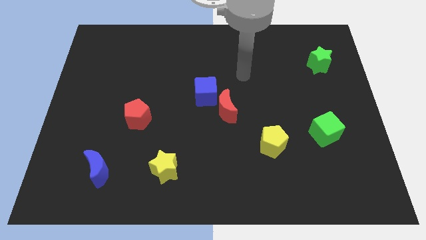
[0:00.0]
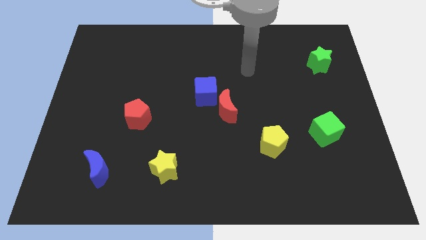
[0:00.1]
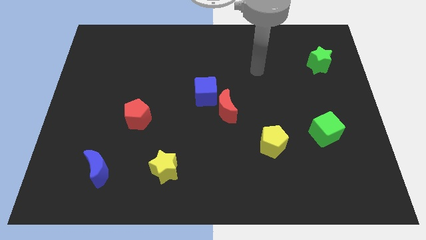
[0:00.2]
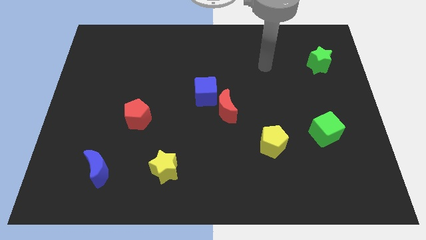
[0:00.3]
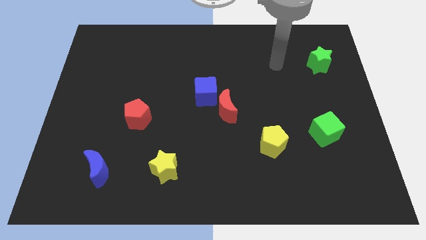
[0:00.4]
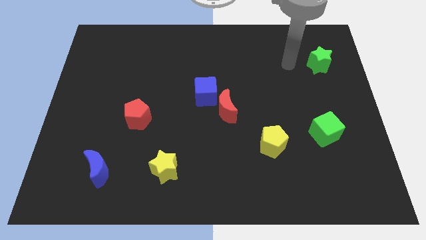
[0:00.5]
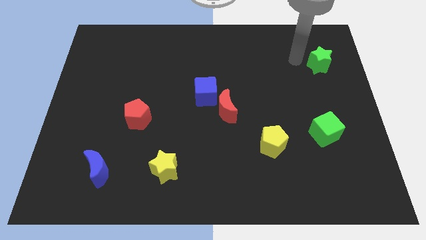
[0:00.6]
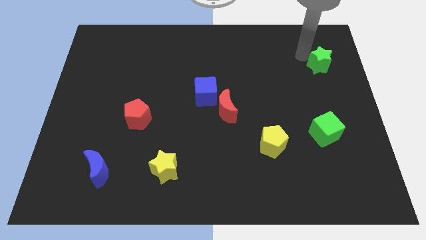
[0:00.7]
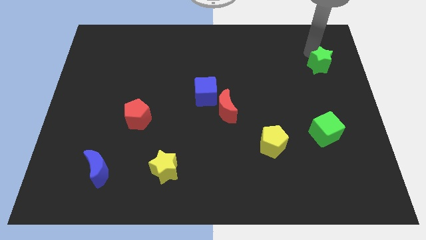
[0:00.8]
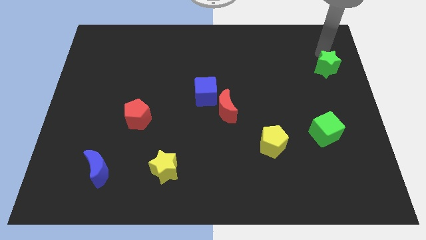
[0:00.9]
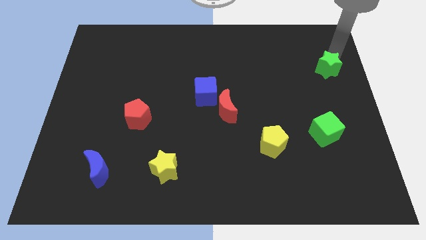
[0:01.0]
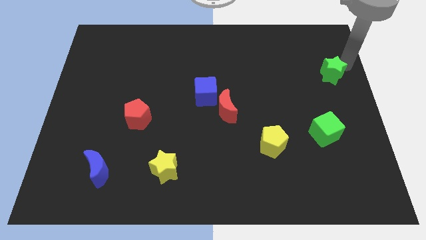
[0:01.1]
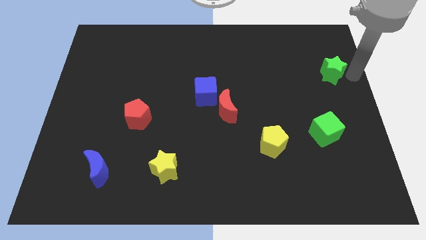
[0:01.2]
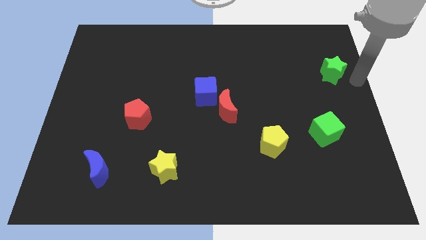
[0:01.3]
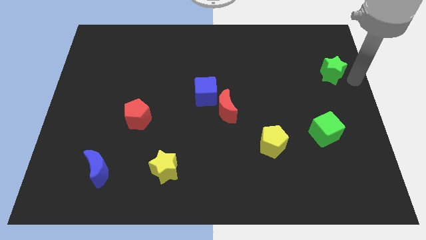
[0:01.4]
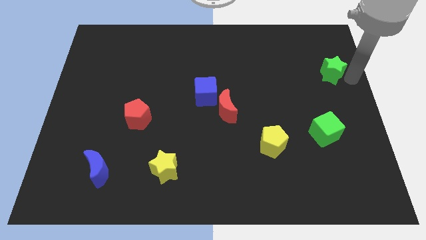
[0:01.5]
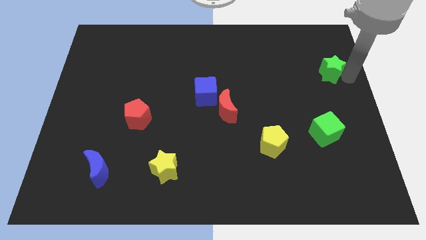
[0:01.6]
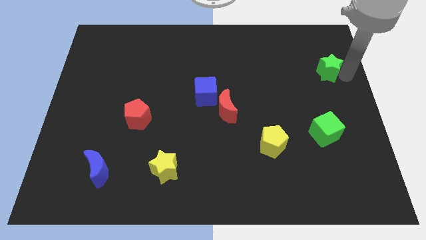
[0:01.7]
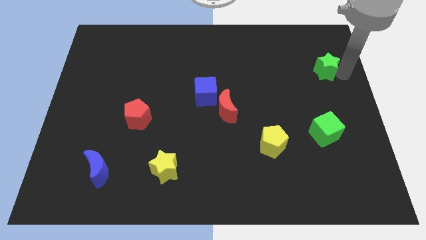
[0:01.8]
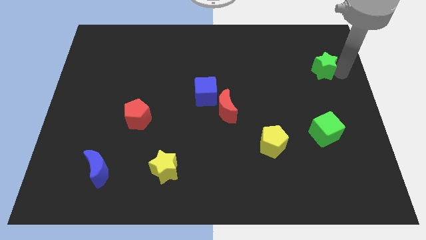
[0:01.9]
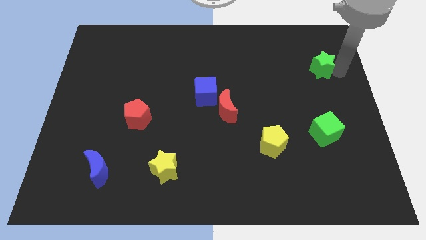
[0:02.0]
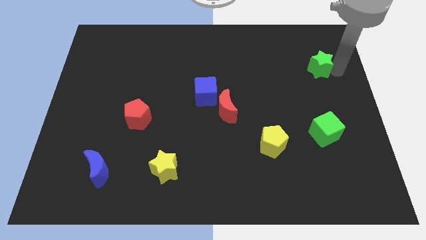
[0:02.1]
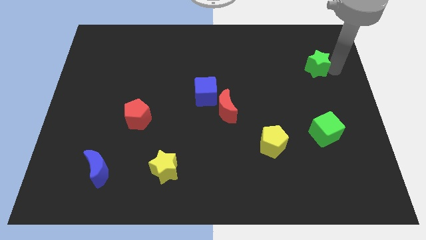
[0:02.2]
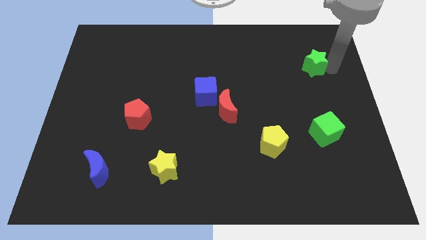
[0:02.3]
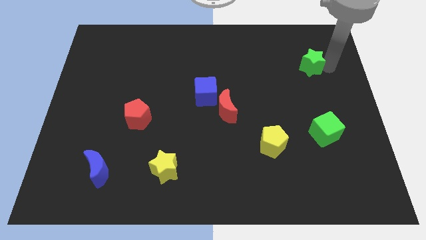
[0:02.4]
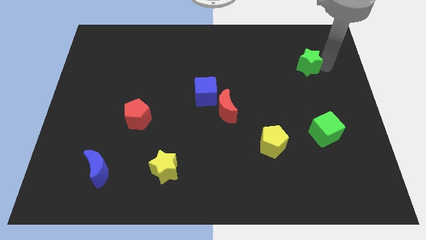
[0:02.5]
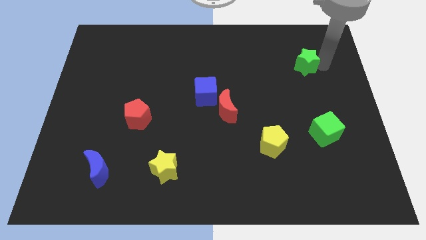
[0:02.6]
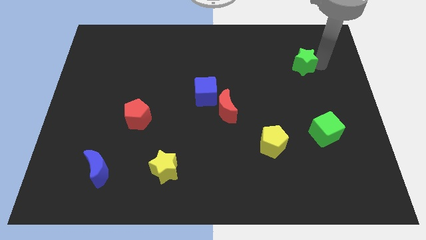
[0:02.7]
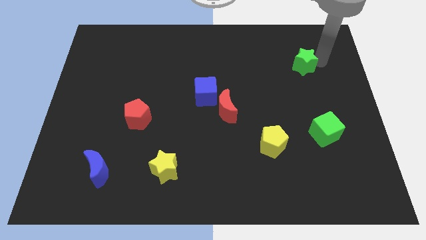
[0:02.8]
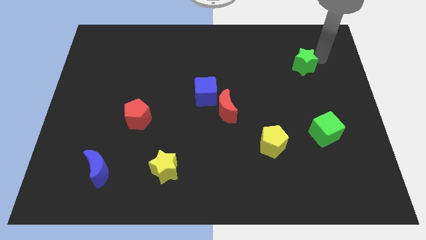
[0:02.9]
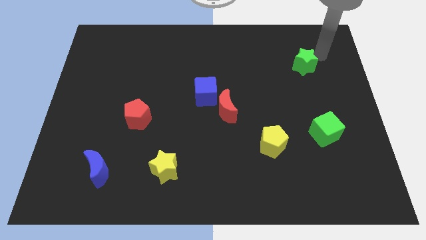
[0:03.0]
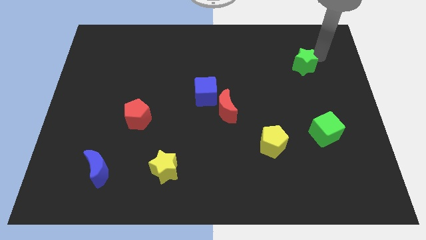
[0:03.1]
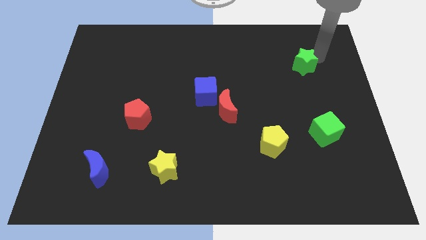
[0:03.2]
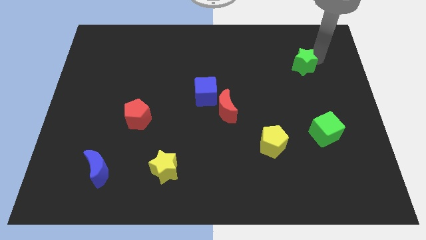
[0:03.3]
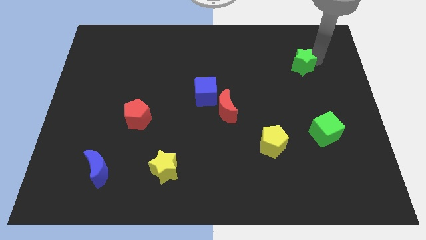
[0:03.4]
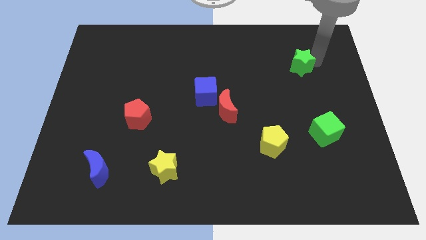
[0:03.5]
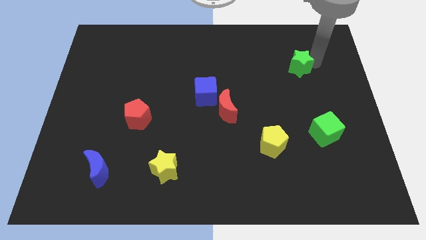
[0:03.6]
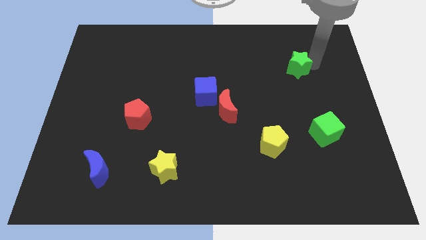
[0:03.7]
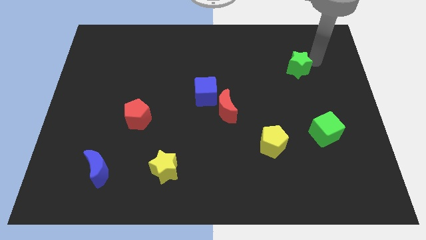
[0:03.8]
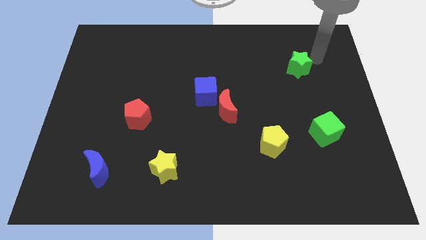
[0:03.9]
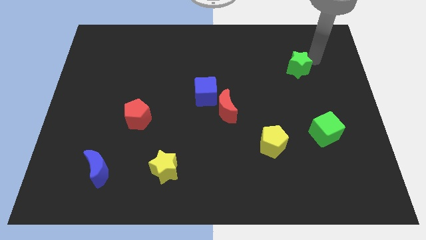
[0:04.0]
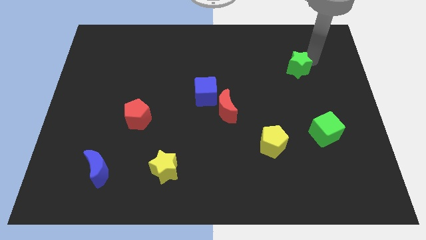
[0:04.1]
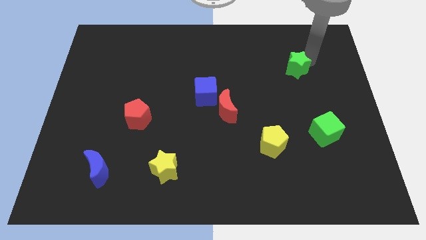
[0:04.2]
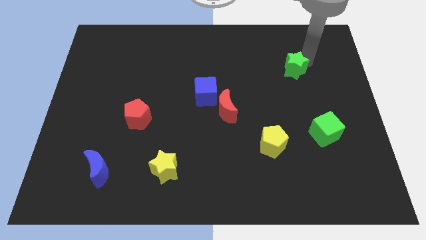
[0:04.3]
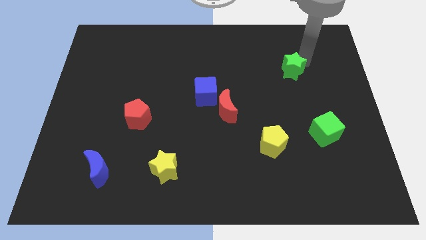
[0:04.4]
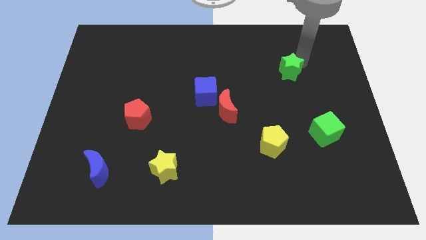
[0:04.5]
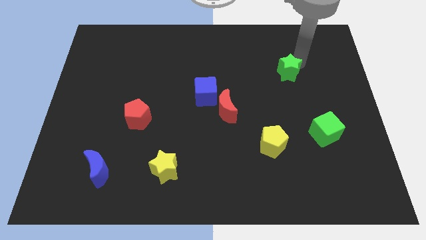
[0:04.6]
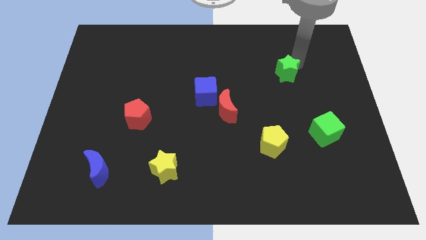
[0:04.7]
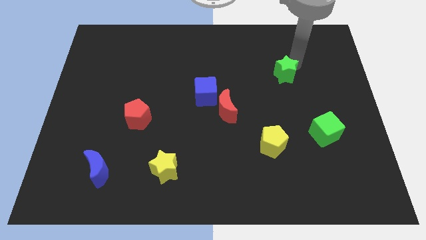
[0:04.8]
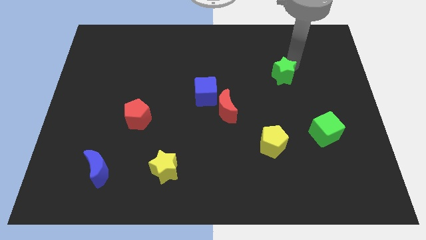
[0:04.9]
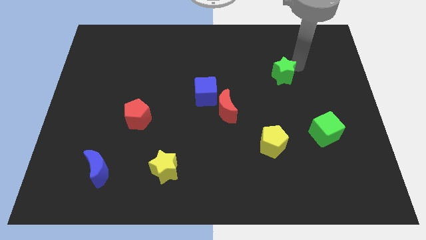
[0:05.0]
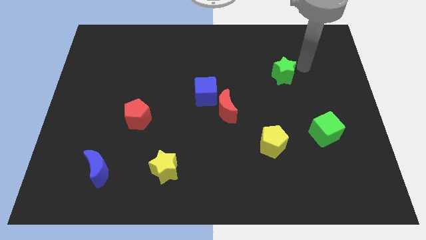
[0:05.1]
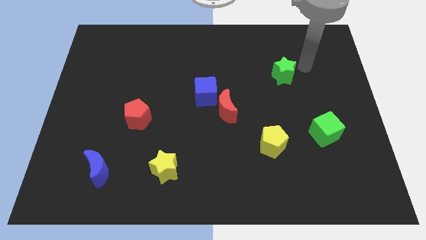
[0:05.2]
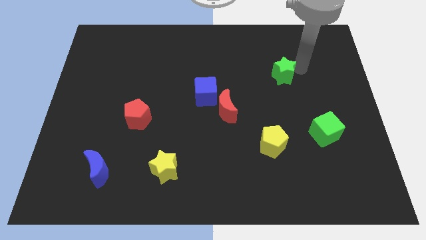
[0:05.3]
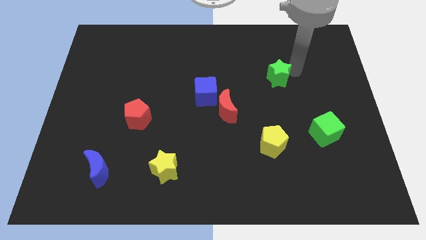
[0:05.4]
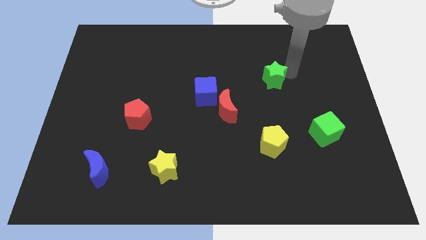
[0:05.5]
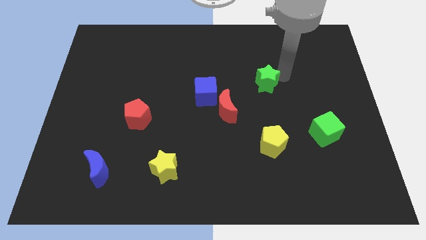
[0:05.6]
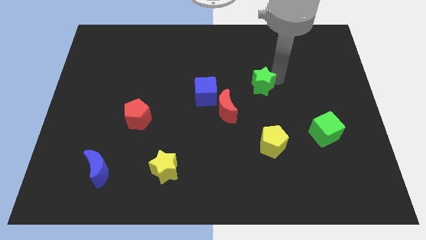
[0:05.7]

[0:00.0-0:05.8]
push the green star to the top right side of the red moon

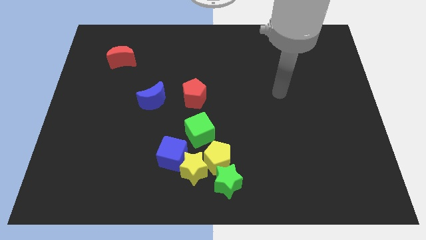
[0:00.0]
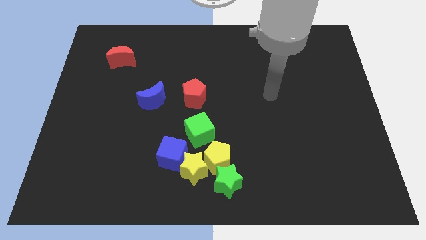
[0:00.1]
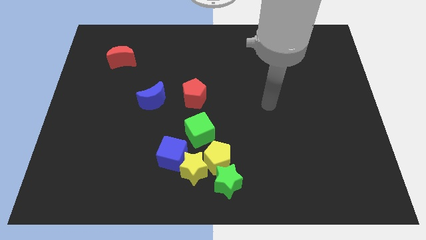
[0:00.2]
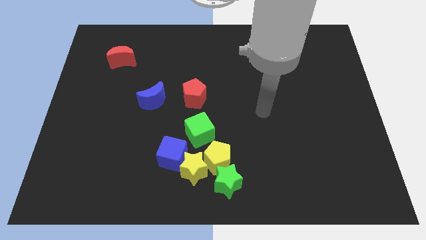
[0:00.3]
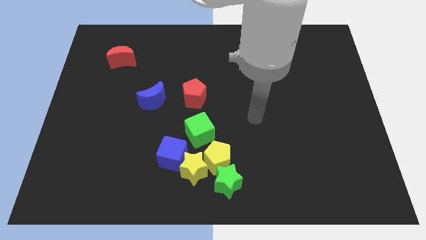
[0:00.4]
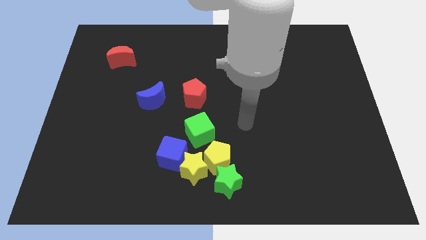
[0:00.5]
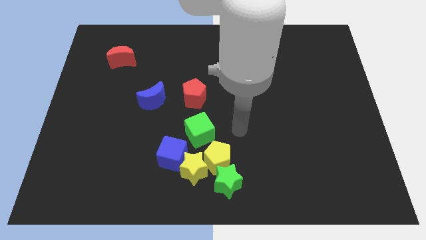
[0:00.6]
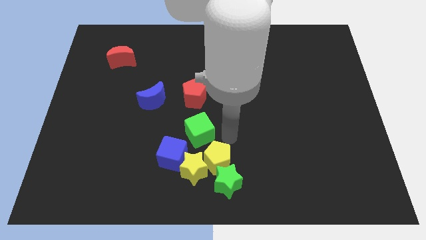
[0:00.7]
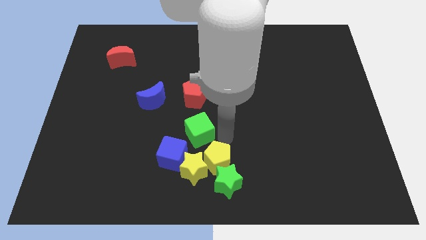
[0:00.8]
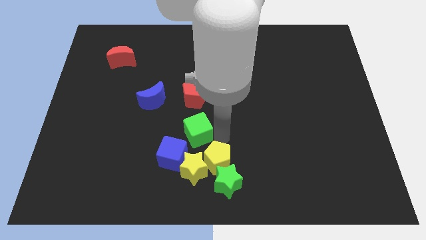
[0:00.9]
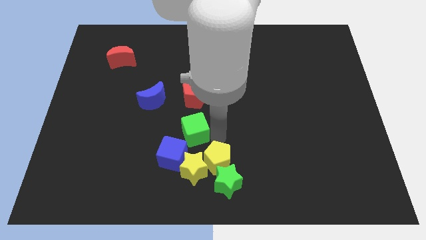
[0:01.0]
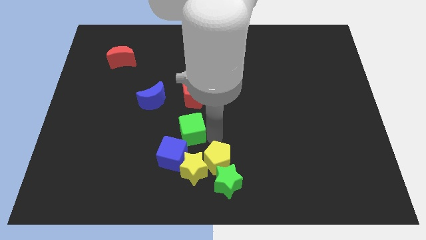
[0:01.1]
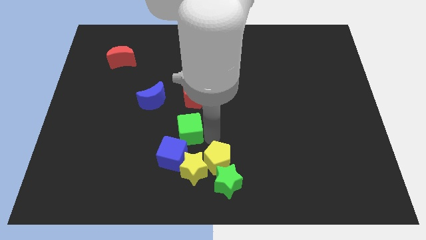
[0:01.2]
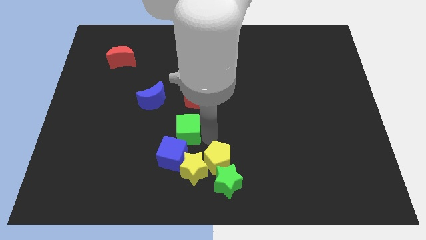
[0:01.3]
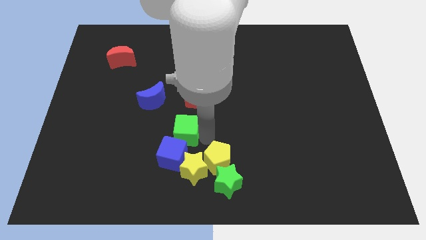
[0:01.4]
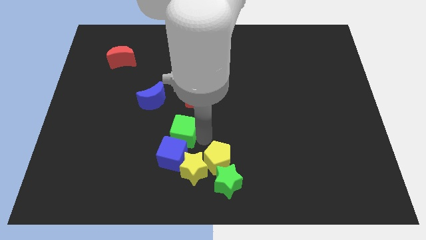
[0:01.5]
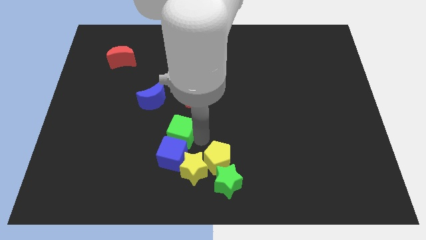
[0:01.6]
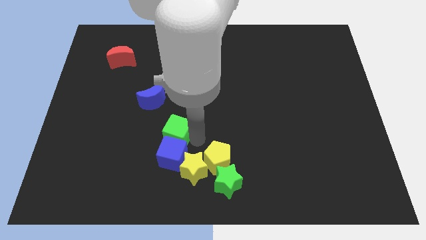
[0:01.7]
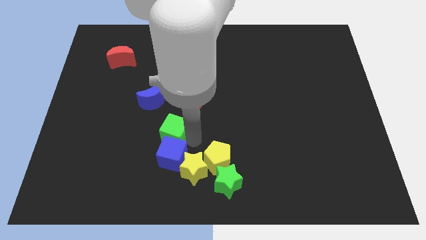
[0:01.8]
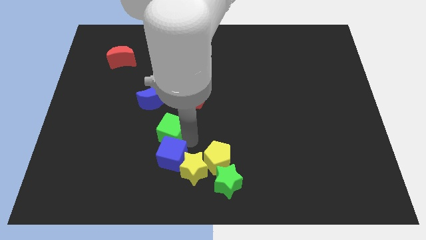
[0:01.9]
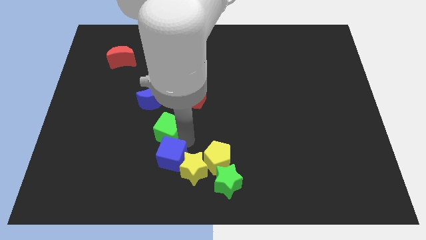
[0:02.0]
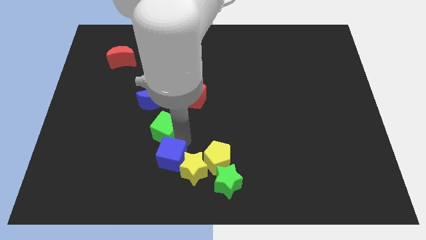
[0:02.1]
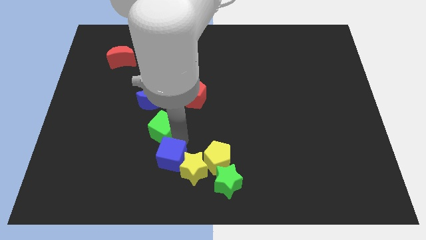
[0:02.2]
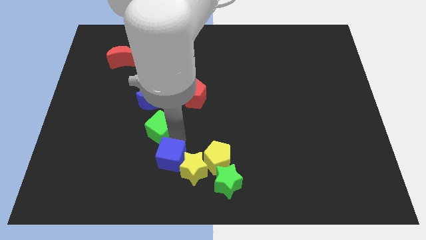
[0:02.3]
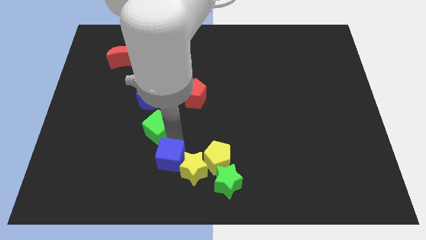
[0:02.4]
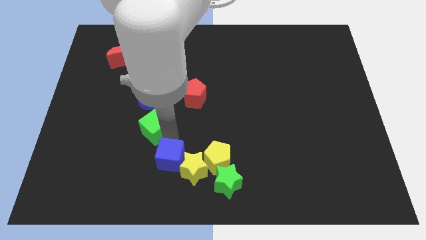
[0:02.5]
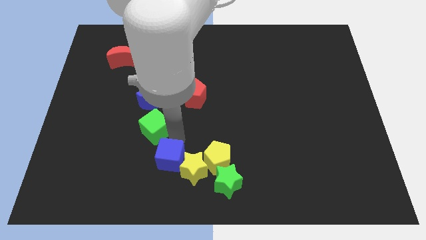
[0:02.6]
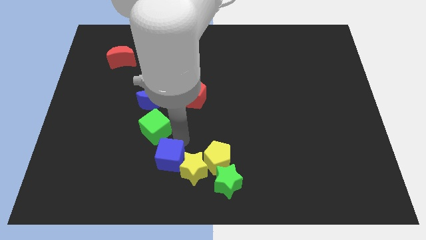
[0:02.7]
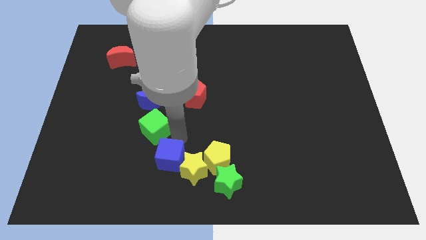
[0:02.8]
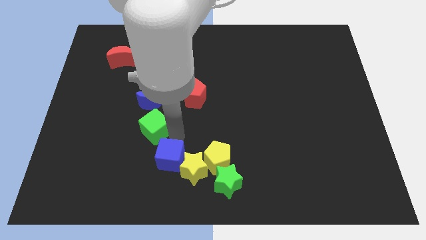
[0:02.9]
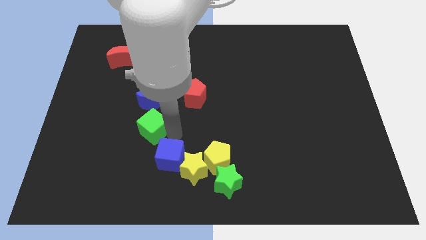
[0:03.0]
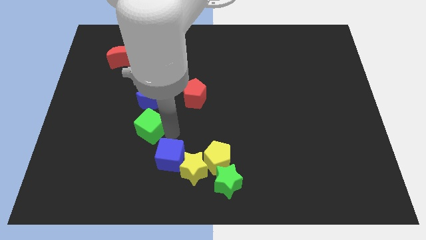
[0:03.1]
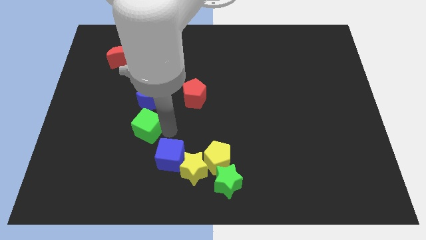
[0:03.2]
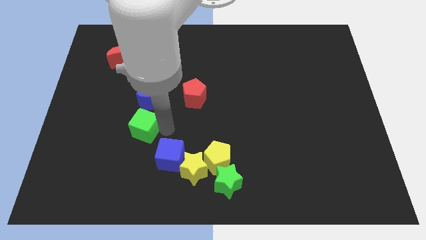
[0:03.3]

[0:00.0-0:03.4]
put the green cube diagonally down and to the left of the blue moon
